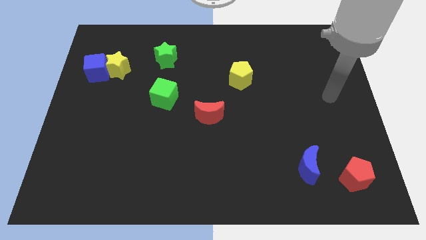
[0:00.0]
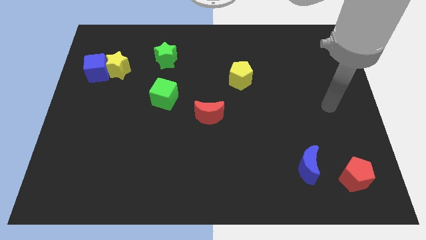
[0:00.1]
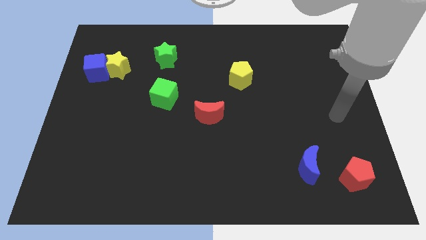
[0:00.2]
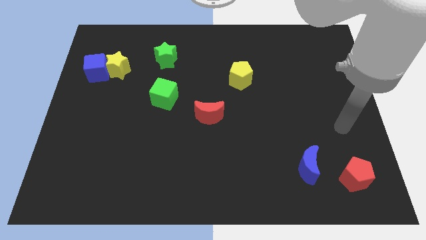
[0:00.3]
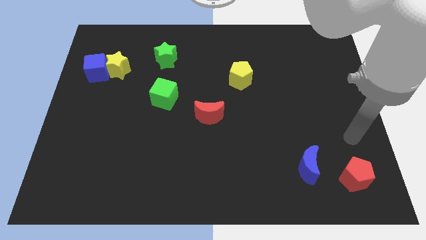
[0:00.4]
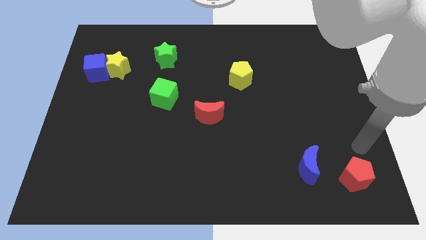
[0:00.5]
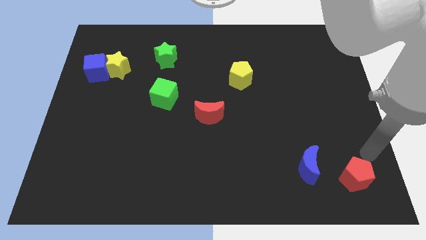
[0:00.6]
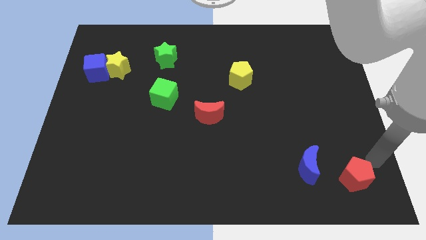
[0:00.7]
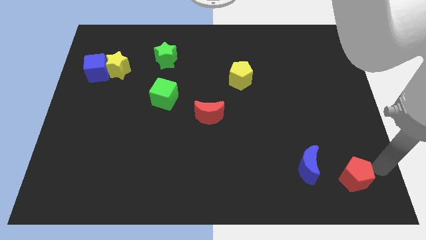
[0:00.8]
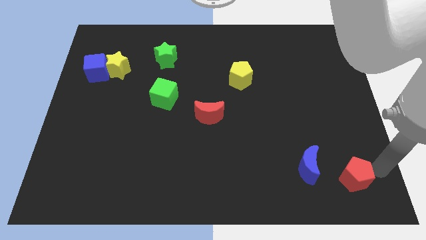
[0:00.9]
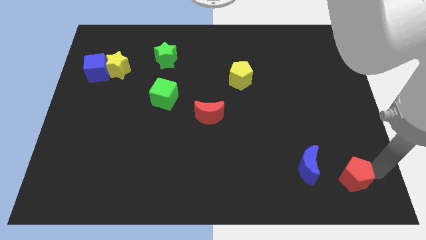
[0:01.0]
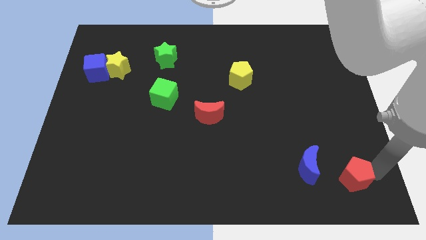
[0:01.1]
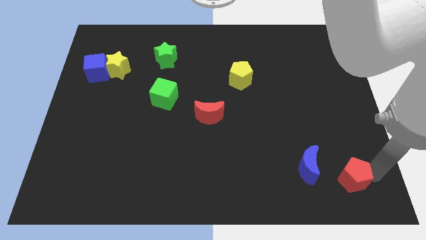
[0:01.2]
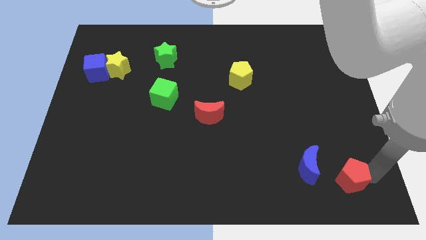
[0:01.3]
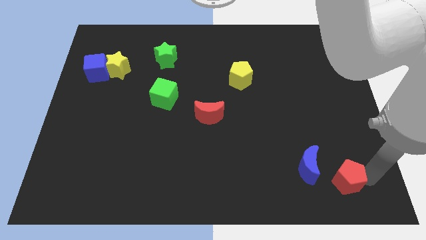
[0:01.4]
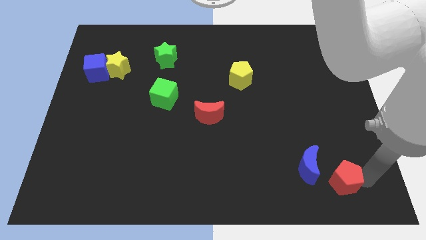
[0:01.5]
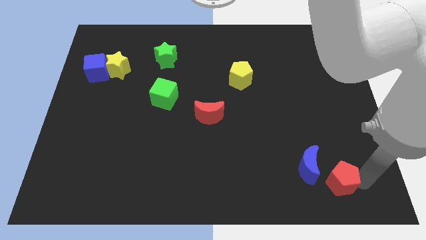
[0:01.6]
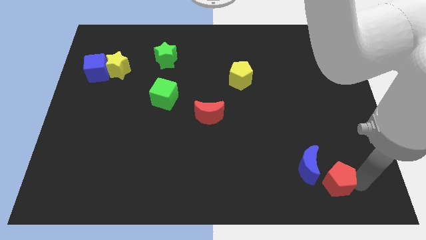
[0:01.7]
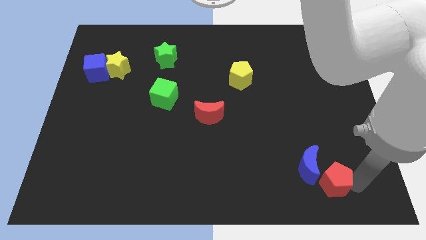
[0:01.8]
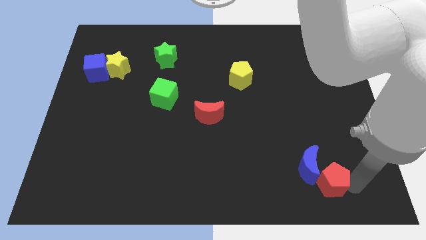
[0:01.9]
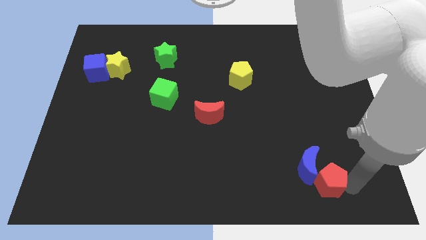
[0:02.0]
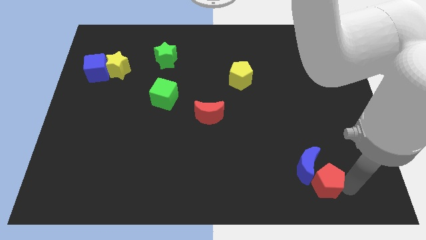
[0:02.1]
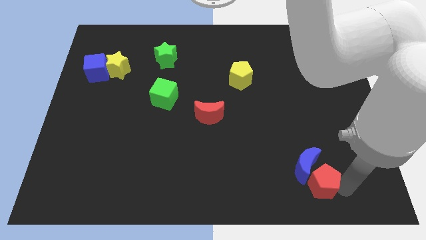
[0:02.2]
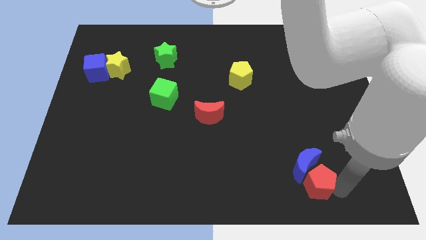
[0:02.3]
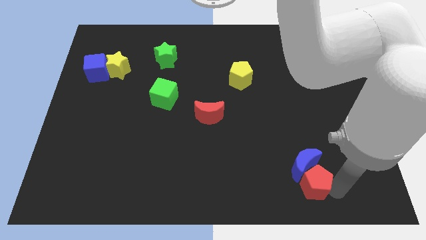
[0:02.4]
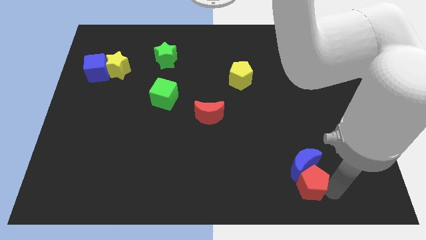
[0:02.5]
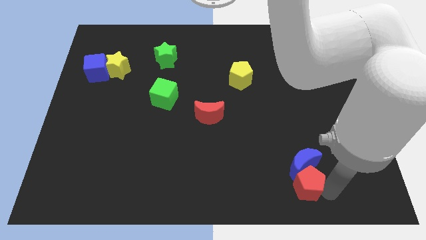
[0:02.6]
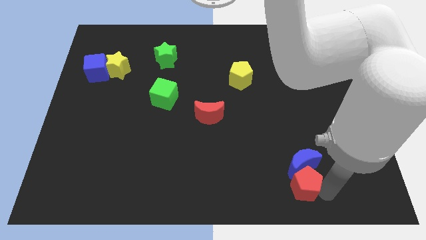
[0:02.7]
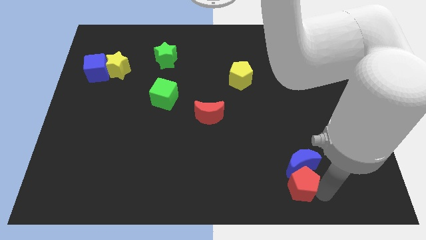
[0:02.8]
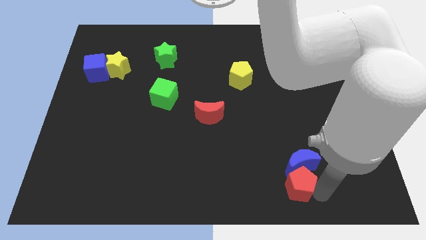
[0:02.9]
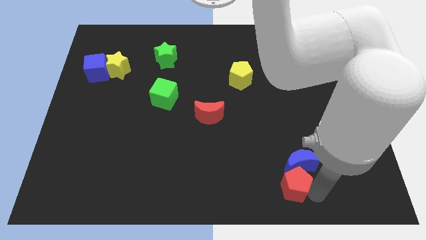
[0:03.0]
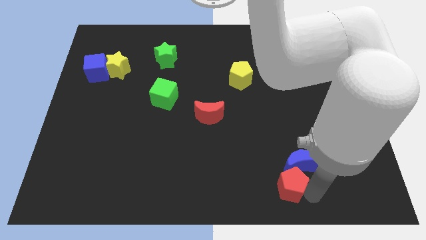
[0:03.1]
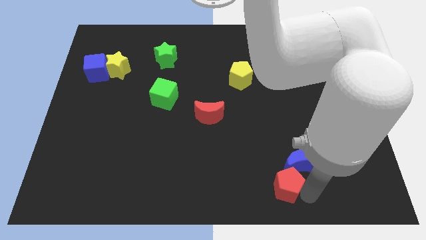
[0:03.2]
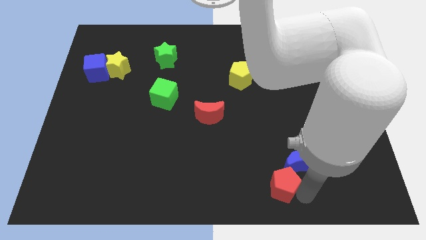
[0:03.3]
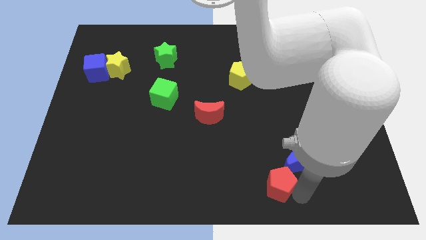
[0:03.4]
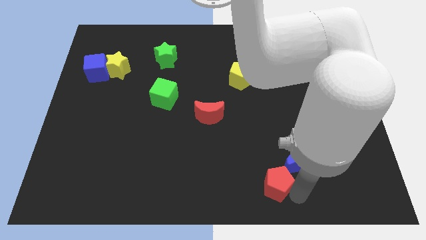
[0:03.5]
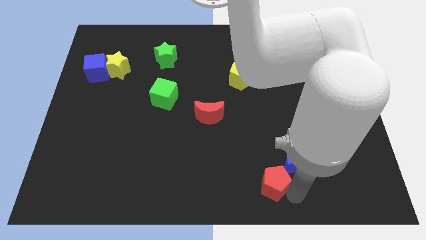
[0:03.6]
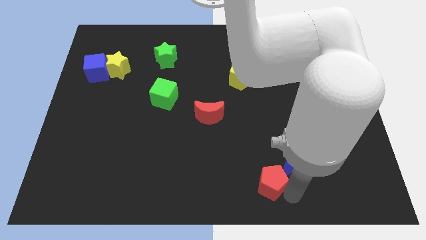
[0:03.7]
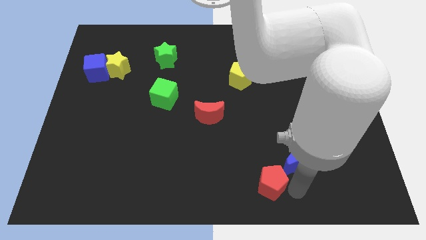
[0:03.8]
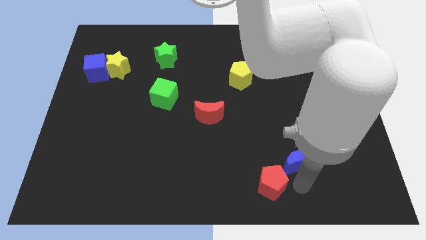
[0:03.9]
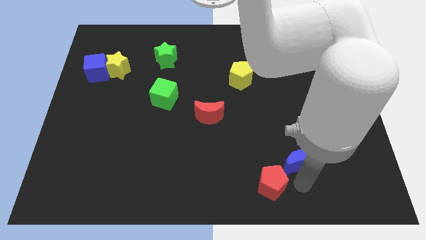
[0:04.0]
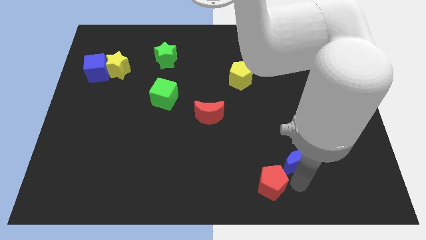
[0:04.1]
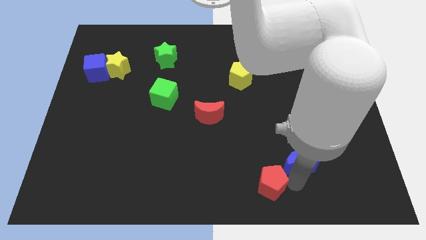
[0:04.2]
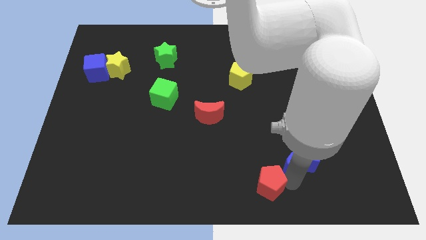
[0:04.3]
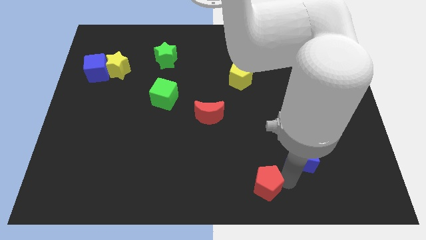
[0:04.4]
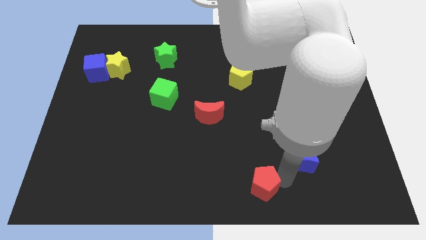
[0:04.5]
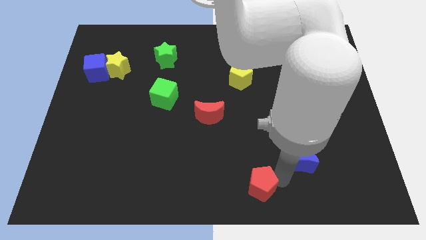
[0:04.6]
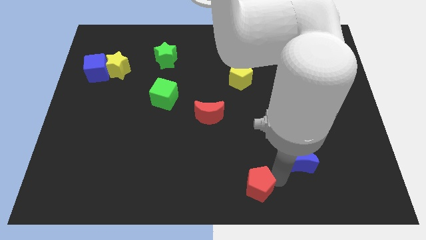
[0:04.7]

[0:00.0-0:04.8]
push the red pentagon to the left

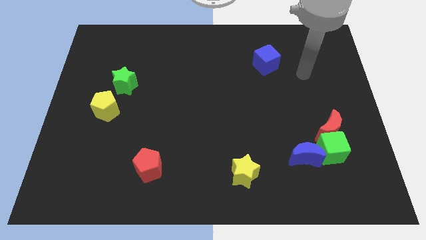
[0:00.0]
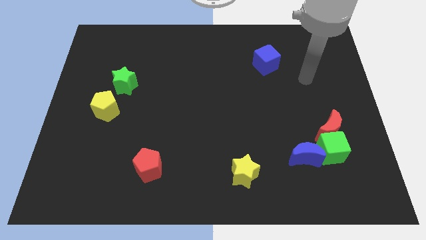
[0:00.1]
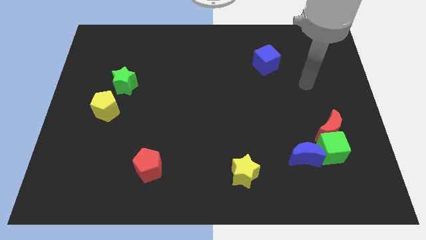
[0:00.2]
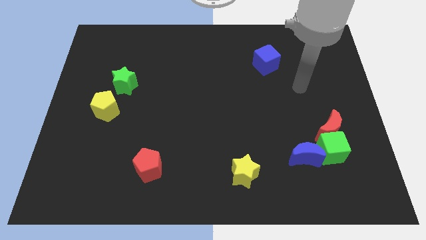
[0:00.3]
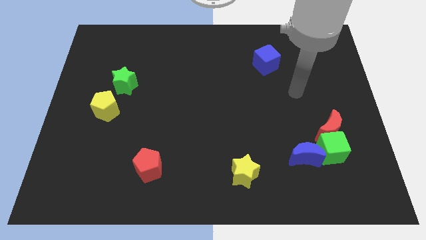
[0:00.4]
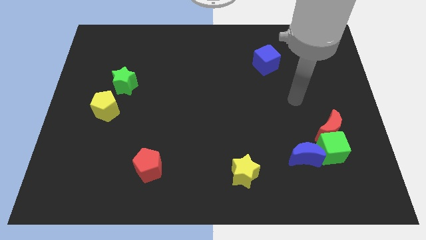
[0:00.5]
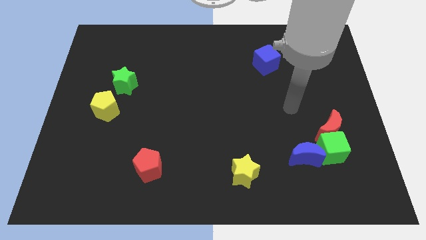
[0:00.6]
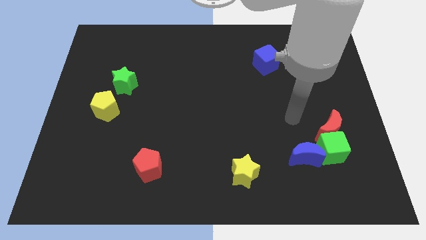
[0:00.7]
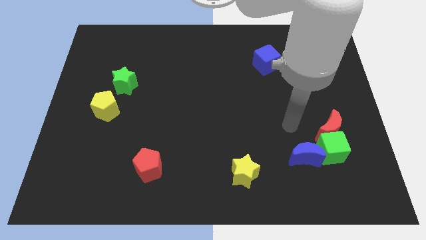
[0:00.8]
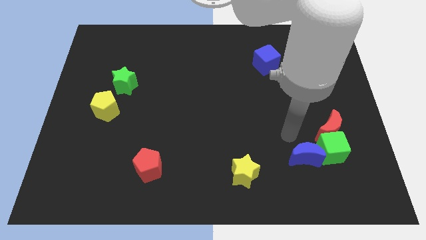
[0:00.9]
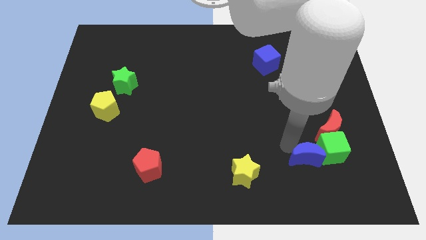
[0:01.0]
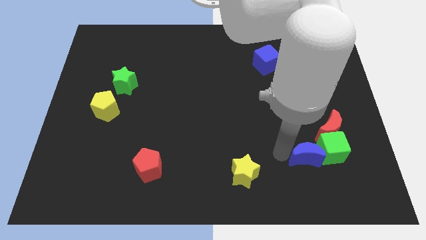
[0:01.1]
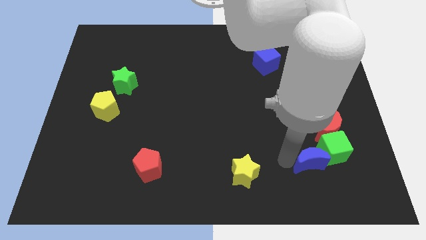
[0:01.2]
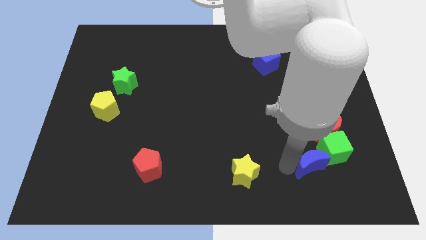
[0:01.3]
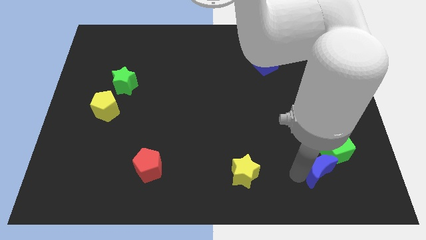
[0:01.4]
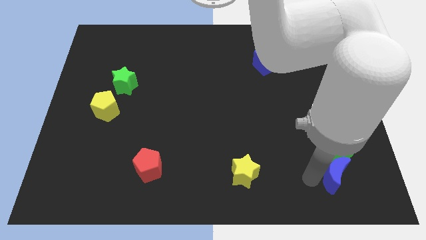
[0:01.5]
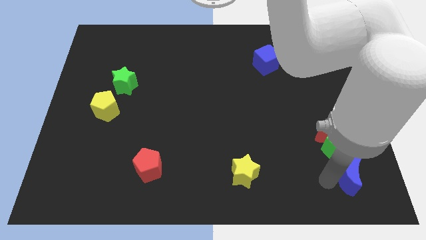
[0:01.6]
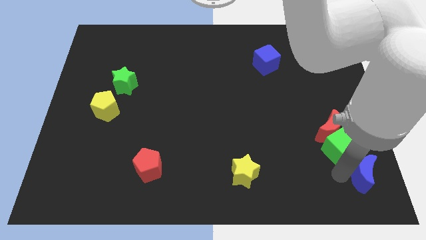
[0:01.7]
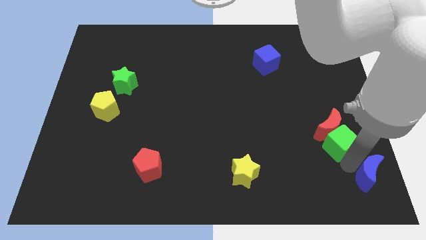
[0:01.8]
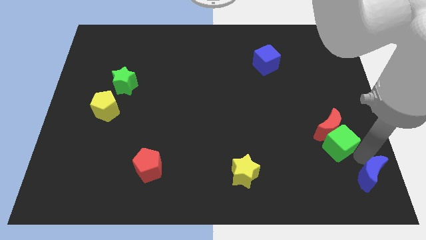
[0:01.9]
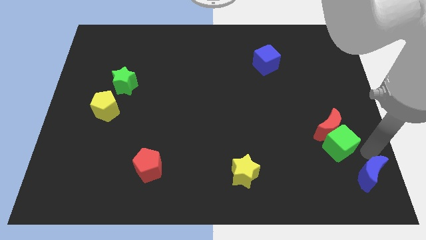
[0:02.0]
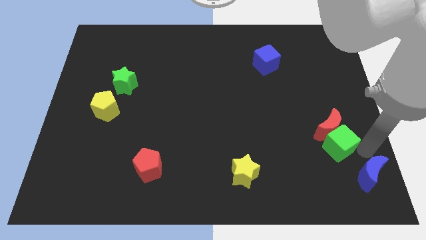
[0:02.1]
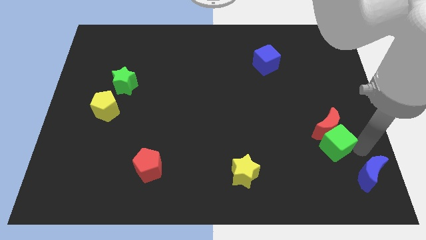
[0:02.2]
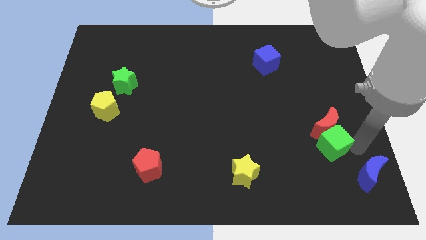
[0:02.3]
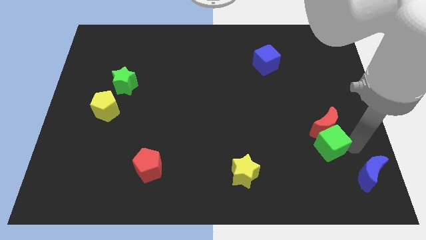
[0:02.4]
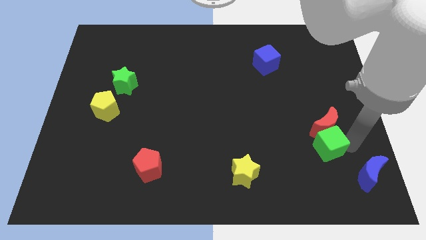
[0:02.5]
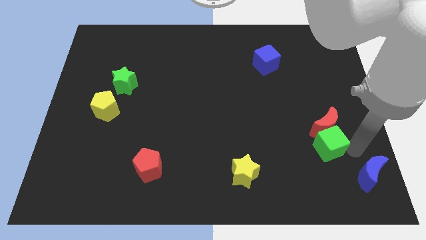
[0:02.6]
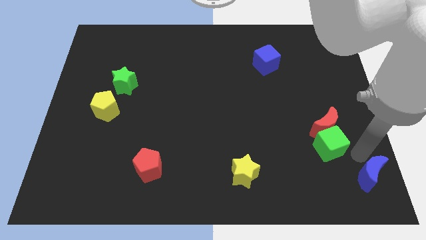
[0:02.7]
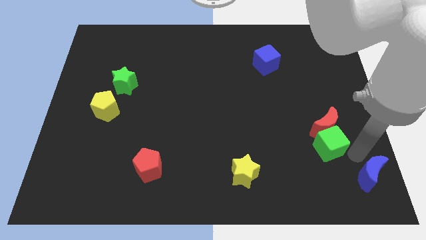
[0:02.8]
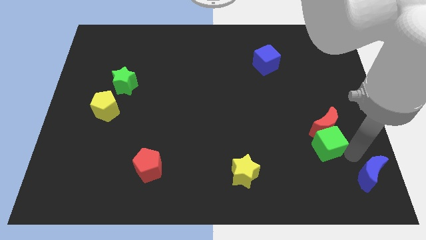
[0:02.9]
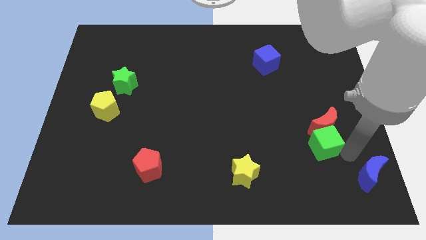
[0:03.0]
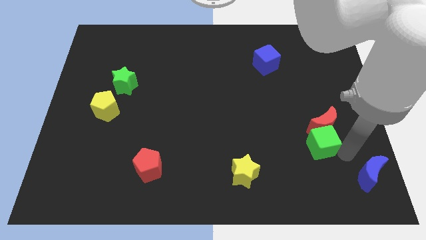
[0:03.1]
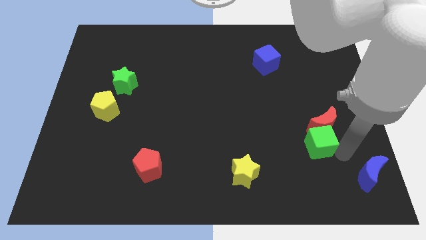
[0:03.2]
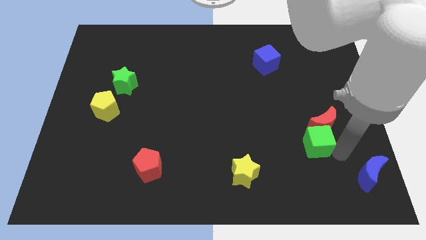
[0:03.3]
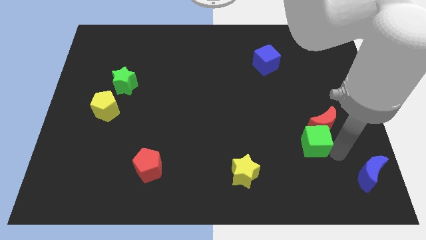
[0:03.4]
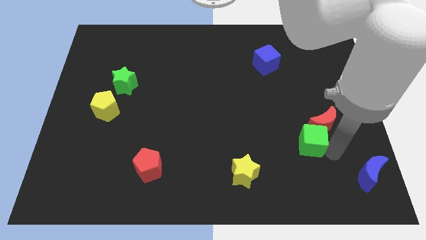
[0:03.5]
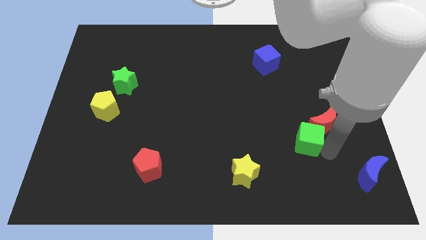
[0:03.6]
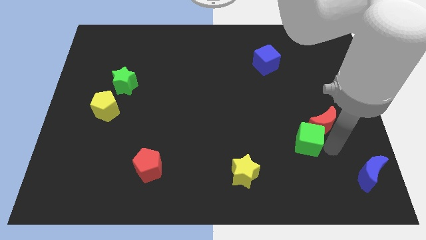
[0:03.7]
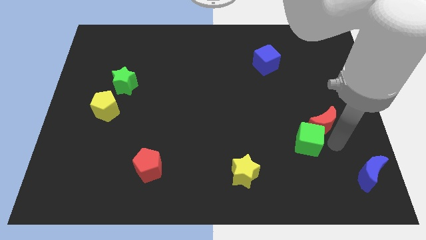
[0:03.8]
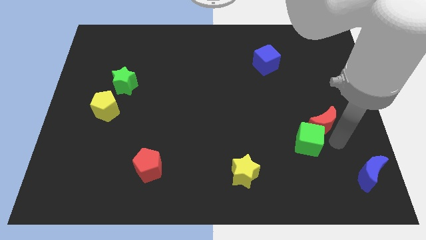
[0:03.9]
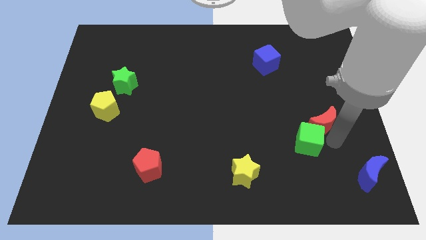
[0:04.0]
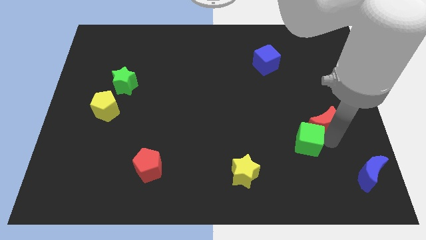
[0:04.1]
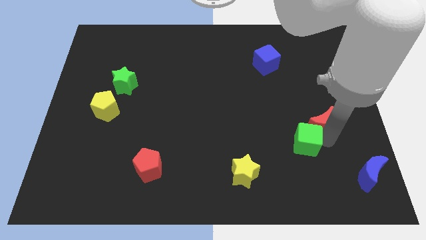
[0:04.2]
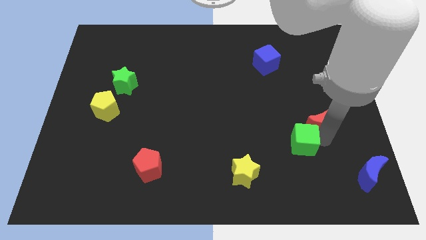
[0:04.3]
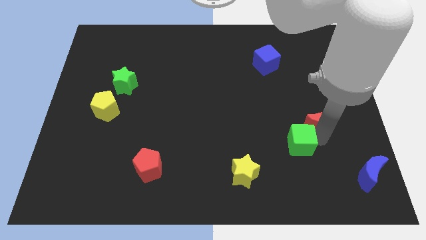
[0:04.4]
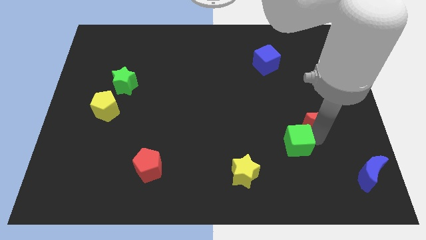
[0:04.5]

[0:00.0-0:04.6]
slightly push the green cube to the left
